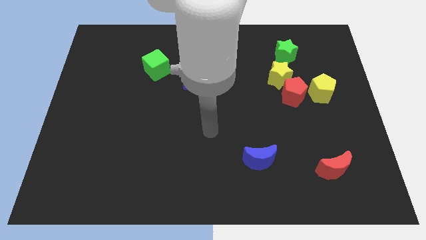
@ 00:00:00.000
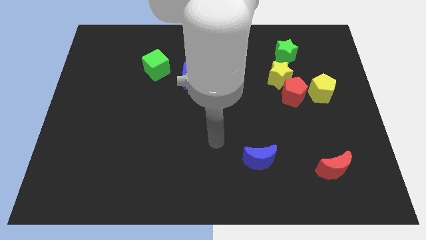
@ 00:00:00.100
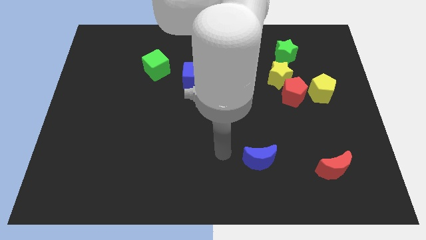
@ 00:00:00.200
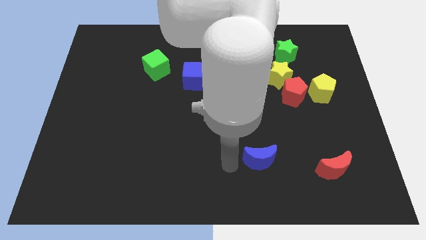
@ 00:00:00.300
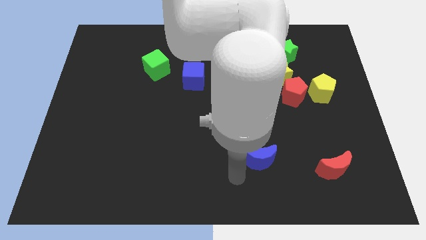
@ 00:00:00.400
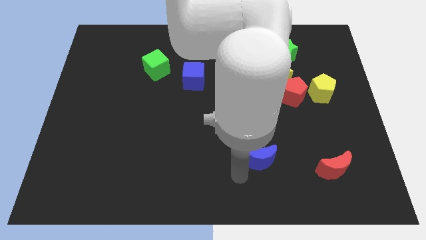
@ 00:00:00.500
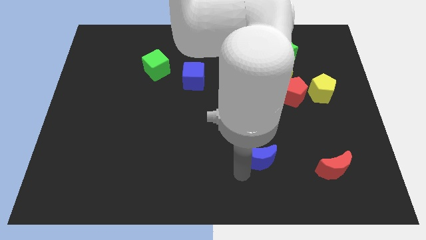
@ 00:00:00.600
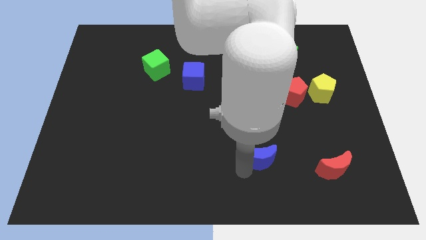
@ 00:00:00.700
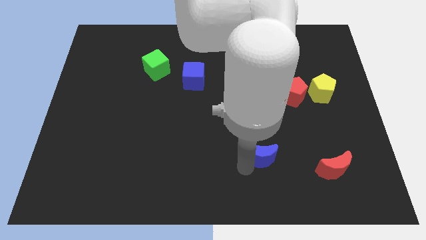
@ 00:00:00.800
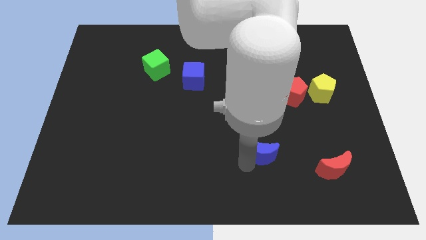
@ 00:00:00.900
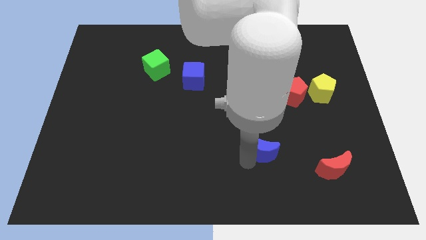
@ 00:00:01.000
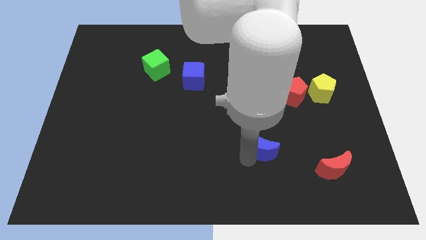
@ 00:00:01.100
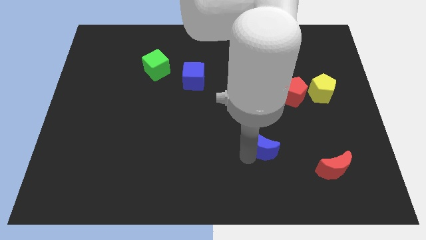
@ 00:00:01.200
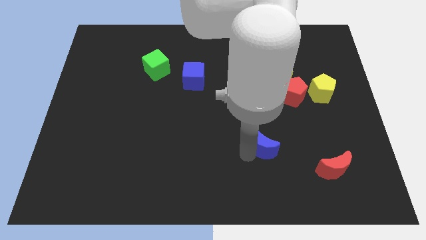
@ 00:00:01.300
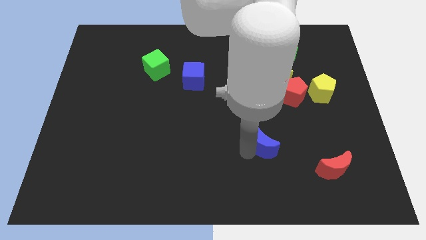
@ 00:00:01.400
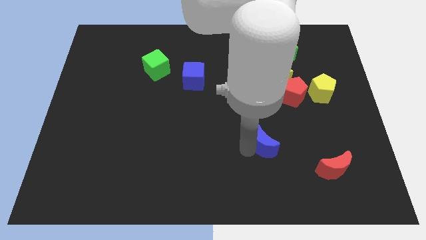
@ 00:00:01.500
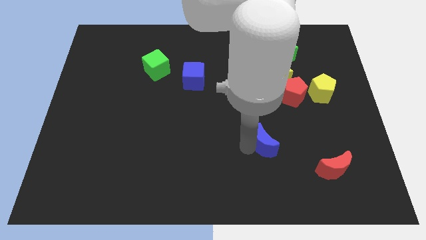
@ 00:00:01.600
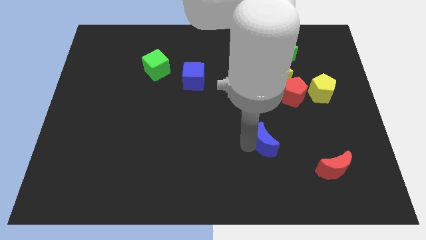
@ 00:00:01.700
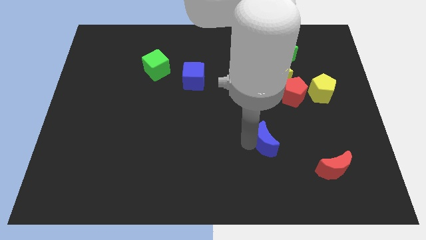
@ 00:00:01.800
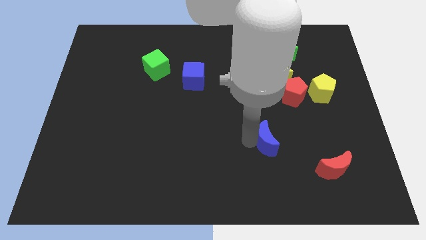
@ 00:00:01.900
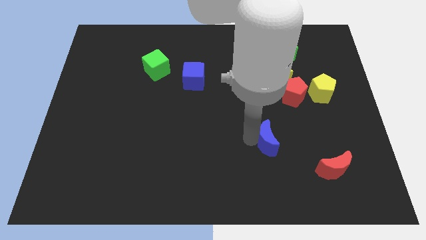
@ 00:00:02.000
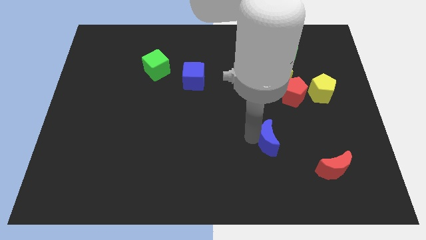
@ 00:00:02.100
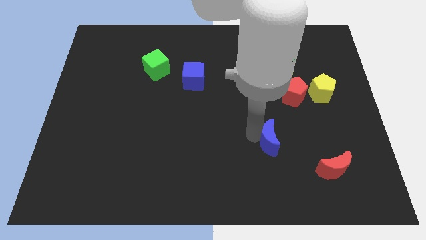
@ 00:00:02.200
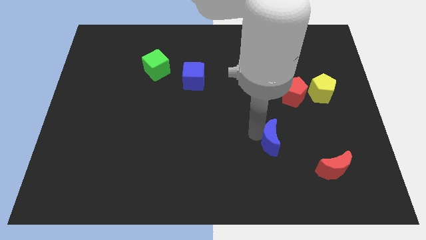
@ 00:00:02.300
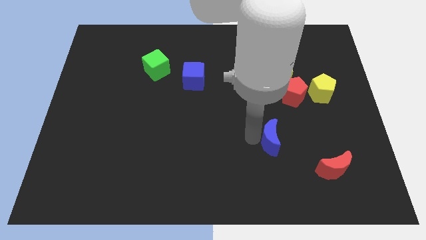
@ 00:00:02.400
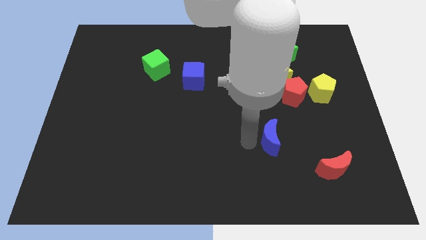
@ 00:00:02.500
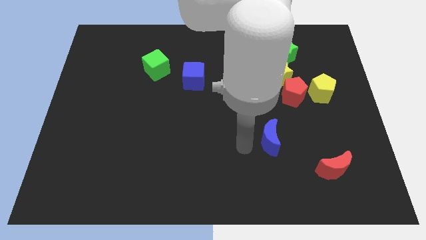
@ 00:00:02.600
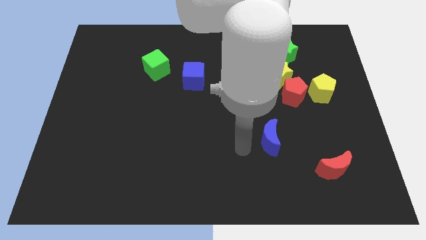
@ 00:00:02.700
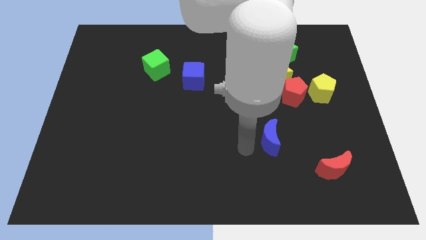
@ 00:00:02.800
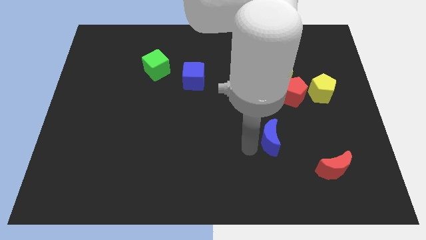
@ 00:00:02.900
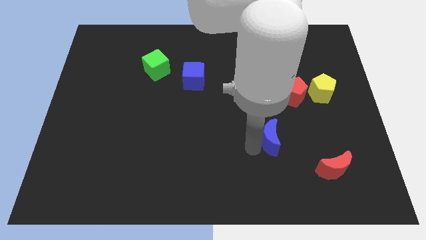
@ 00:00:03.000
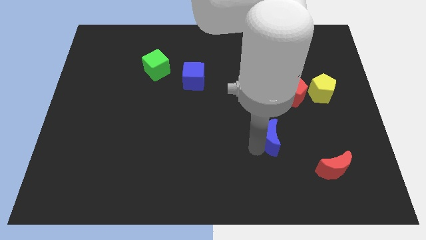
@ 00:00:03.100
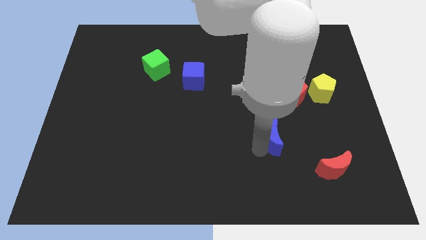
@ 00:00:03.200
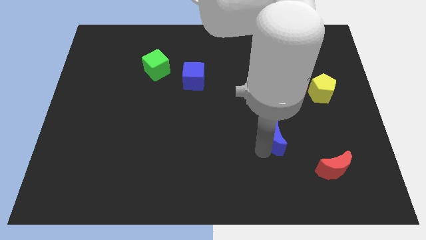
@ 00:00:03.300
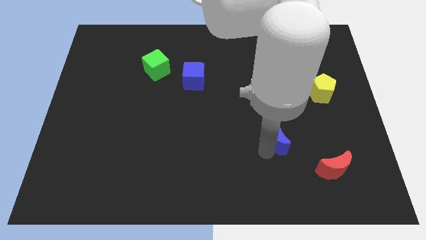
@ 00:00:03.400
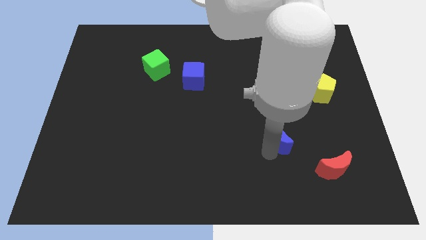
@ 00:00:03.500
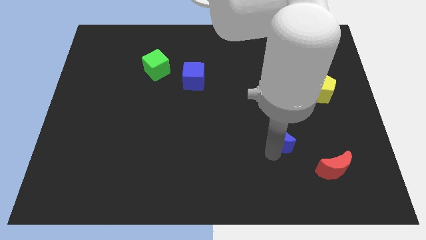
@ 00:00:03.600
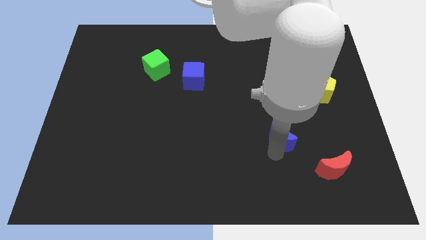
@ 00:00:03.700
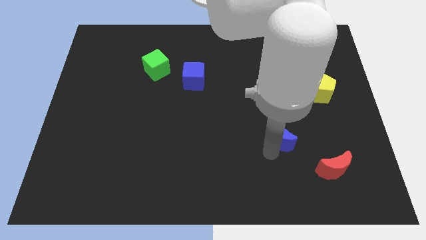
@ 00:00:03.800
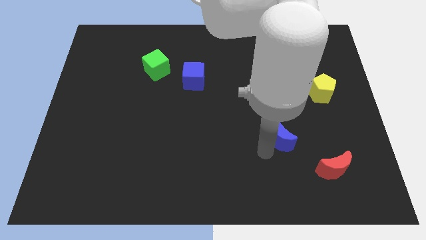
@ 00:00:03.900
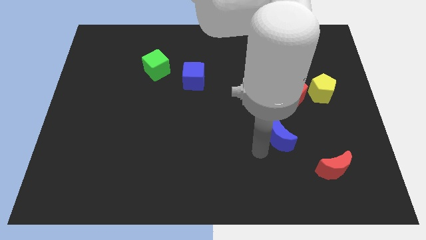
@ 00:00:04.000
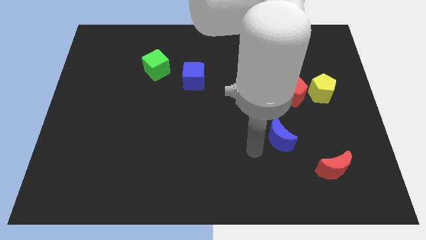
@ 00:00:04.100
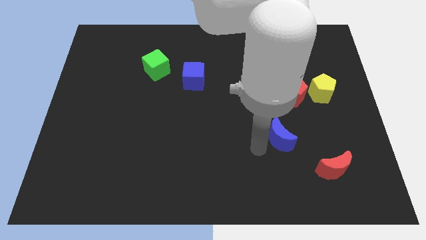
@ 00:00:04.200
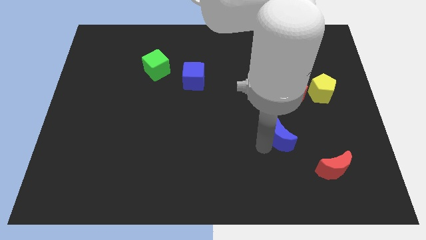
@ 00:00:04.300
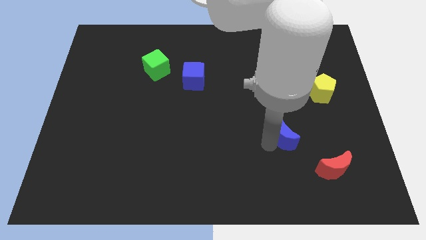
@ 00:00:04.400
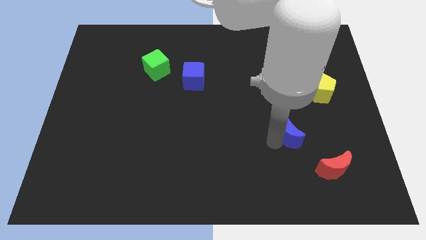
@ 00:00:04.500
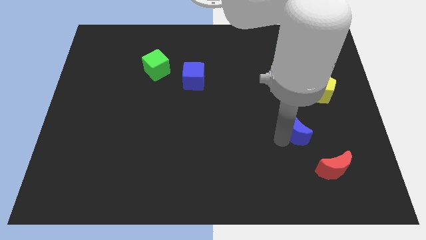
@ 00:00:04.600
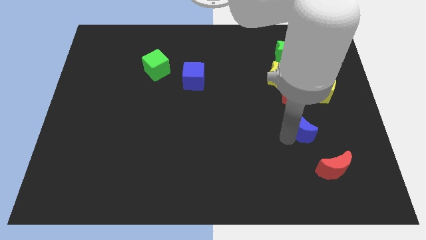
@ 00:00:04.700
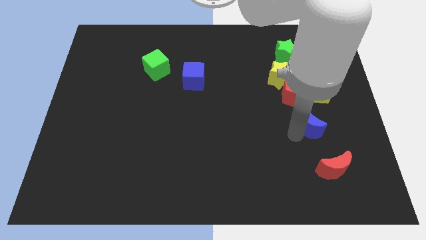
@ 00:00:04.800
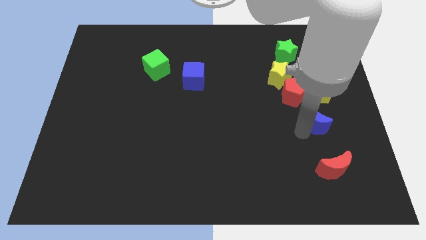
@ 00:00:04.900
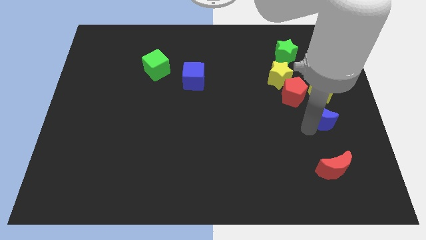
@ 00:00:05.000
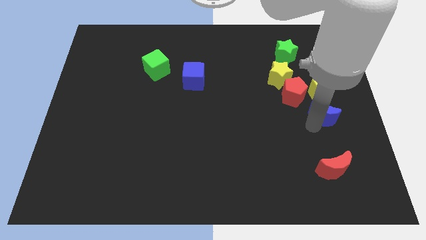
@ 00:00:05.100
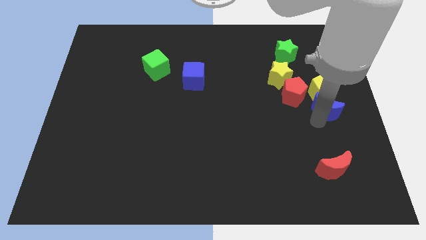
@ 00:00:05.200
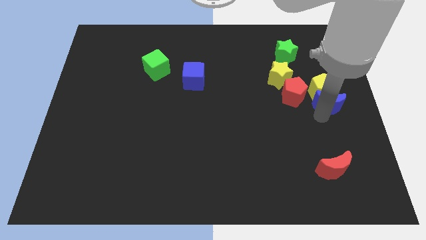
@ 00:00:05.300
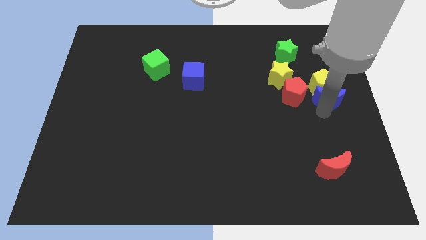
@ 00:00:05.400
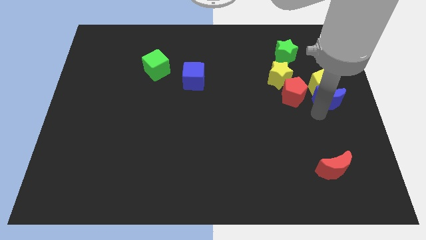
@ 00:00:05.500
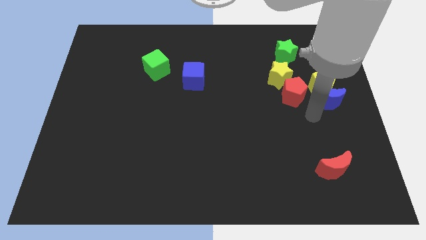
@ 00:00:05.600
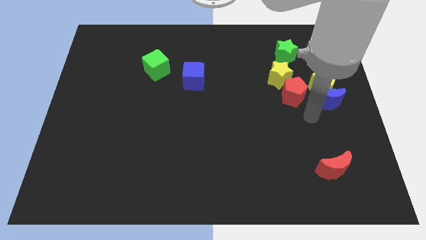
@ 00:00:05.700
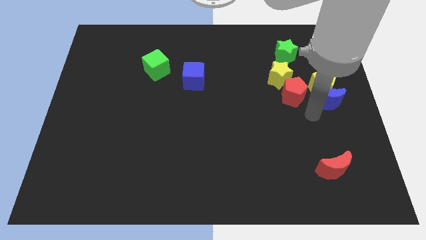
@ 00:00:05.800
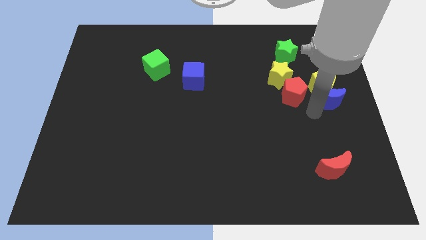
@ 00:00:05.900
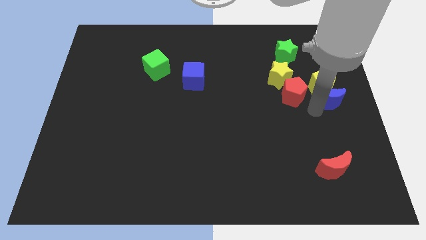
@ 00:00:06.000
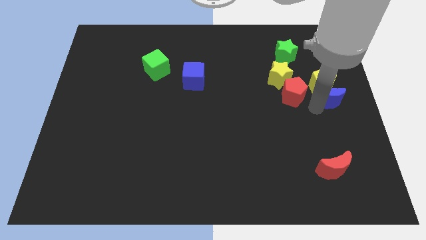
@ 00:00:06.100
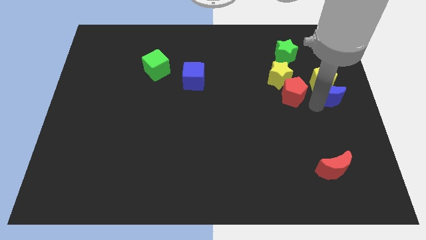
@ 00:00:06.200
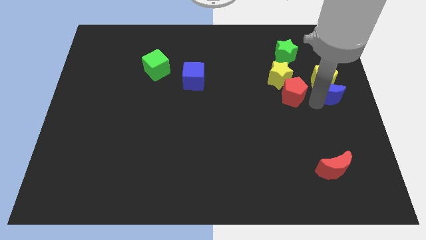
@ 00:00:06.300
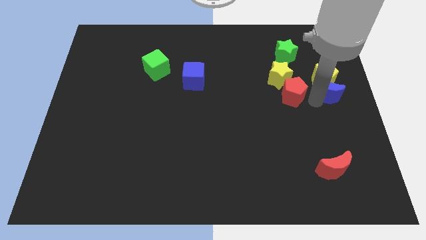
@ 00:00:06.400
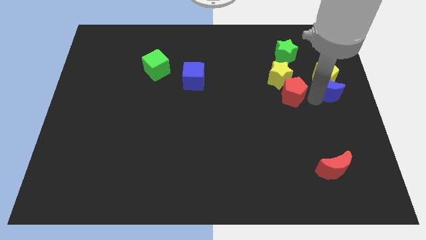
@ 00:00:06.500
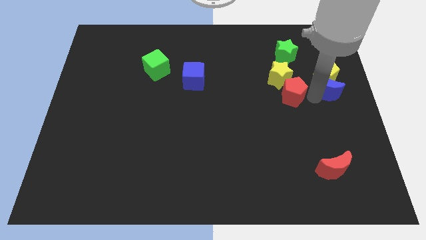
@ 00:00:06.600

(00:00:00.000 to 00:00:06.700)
slide the blue moon diagonally up and to the right of the red pentagon

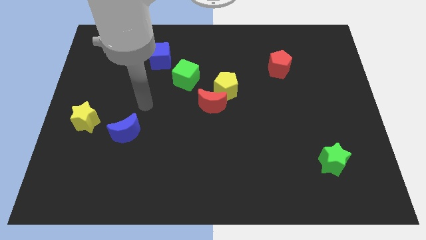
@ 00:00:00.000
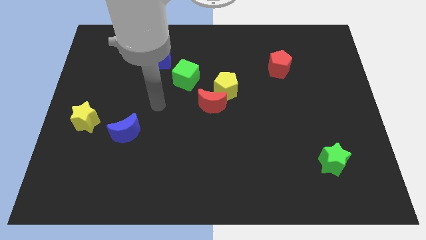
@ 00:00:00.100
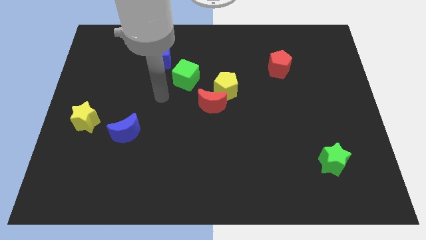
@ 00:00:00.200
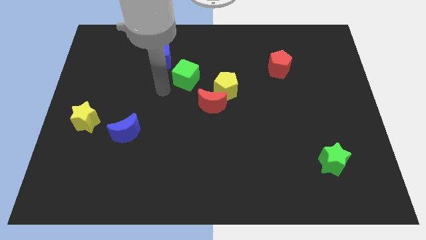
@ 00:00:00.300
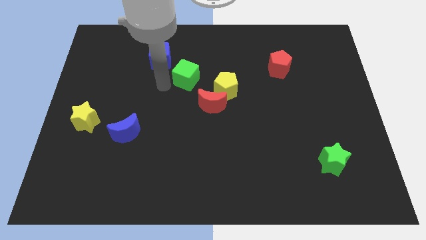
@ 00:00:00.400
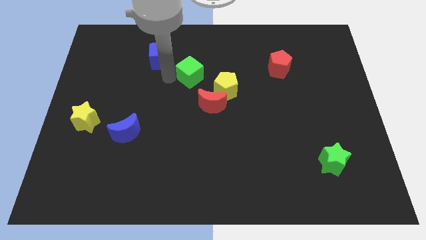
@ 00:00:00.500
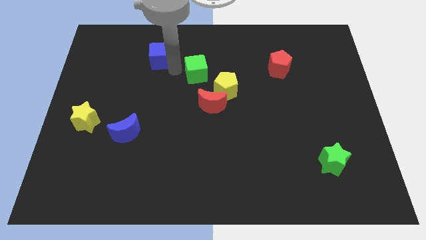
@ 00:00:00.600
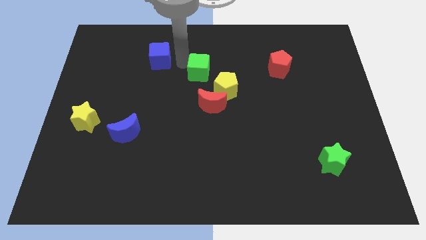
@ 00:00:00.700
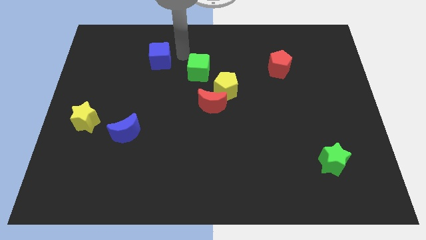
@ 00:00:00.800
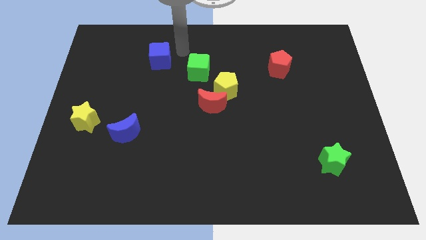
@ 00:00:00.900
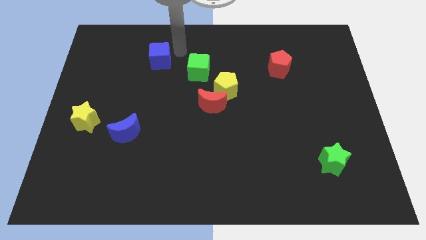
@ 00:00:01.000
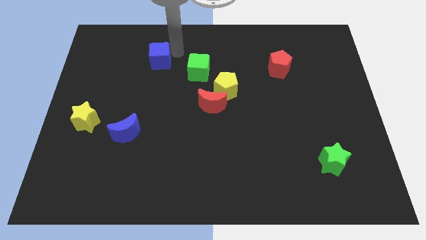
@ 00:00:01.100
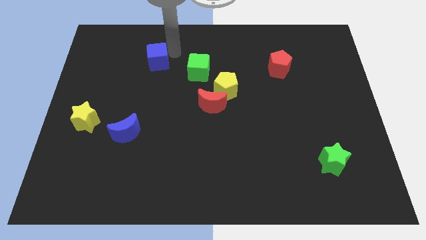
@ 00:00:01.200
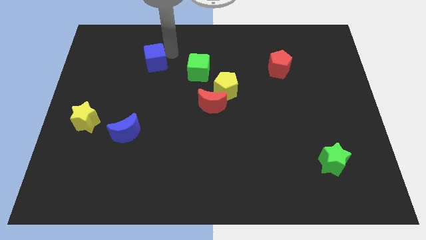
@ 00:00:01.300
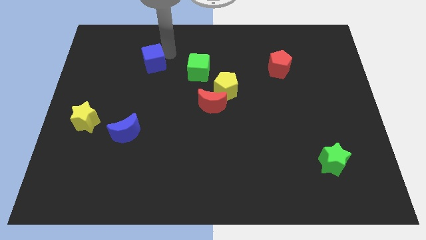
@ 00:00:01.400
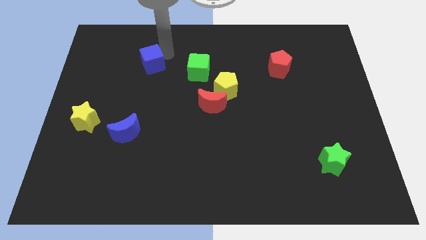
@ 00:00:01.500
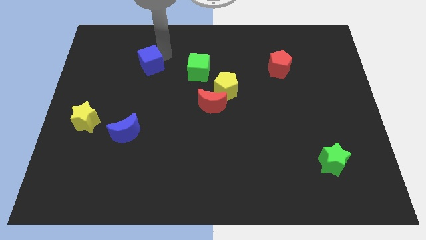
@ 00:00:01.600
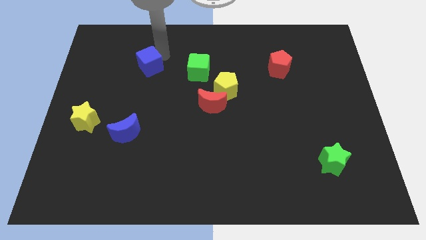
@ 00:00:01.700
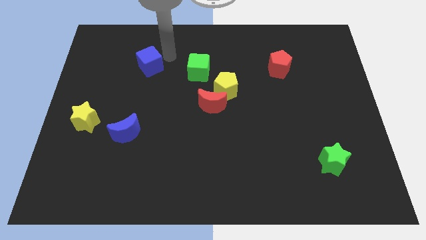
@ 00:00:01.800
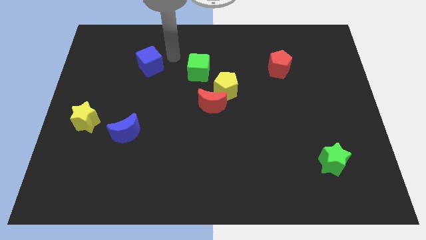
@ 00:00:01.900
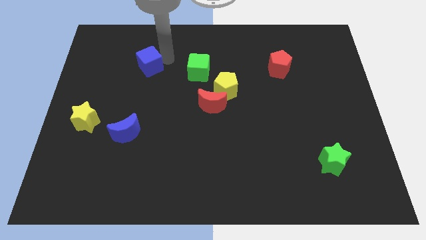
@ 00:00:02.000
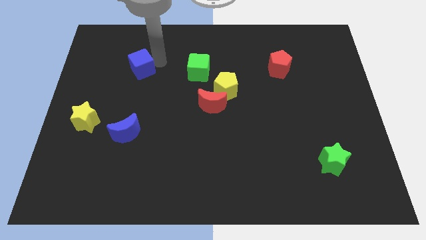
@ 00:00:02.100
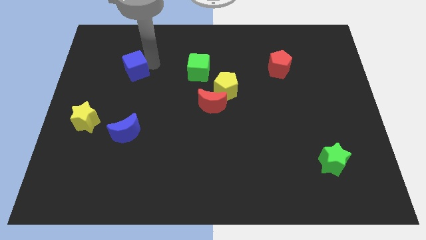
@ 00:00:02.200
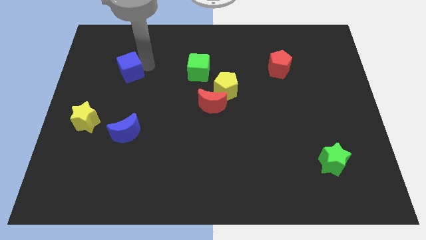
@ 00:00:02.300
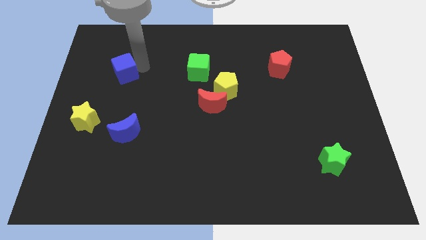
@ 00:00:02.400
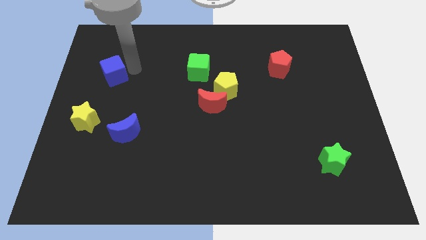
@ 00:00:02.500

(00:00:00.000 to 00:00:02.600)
put the blue cube to the top side of the yellow star
